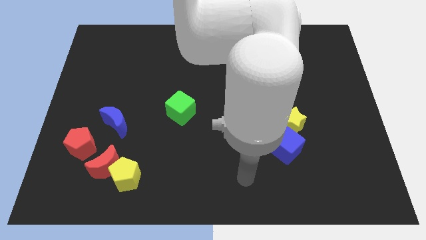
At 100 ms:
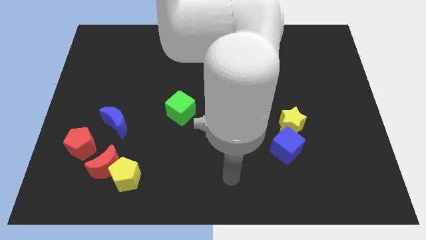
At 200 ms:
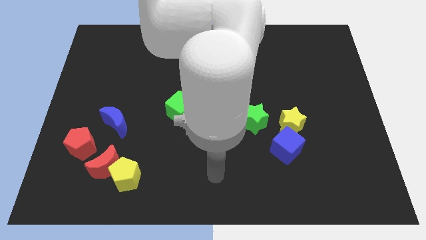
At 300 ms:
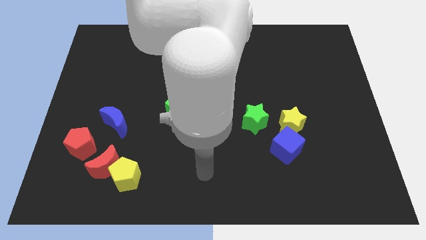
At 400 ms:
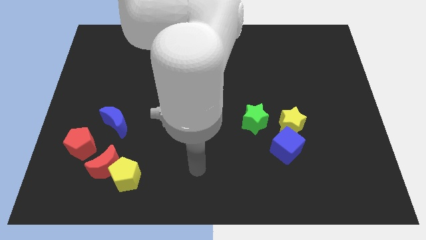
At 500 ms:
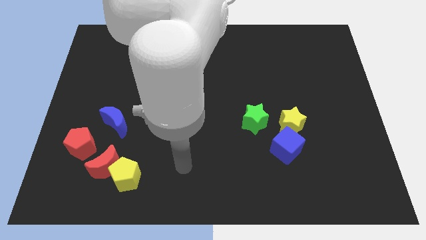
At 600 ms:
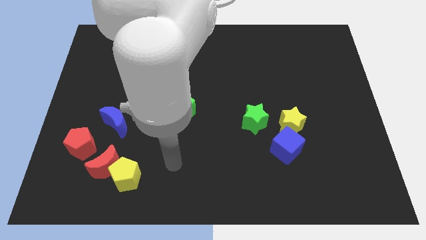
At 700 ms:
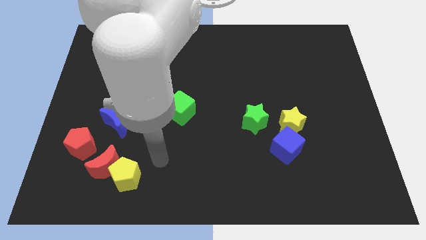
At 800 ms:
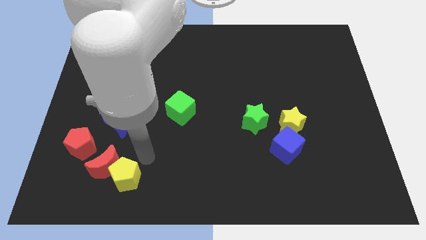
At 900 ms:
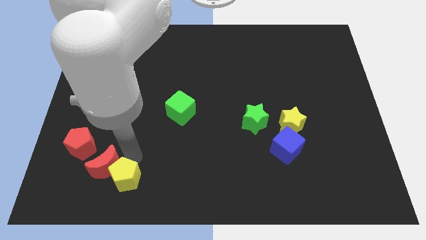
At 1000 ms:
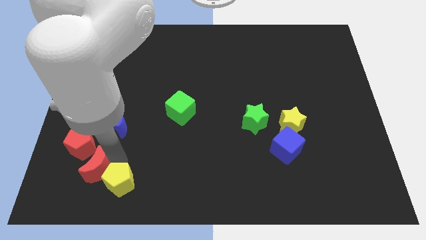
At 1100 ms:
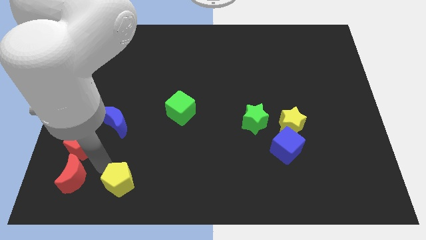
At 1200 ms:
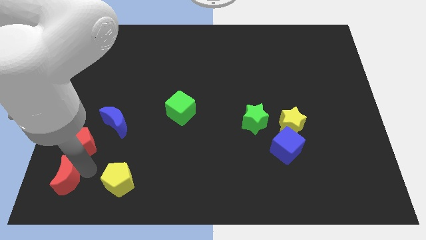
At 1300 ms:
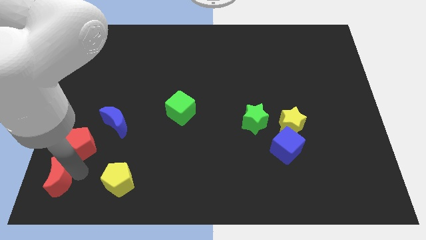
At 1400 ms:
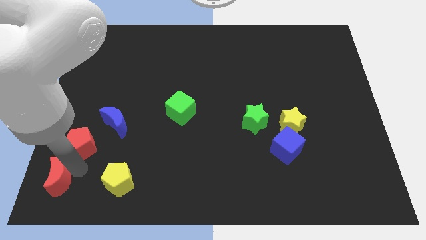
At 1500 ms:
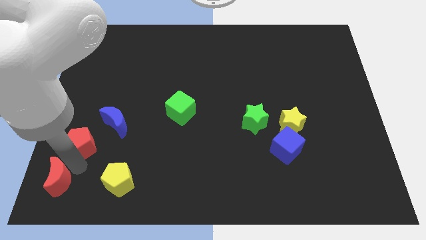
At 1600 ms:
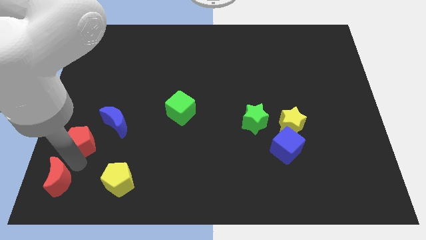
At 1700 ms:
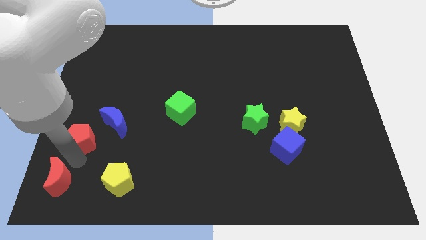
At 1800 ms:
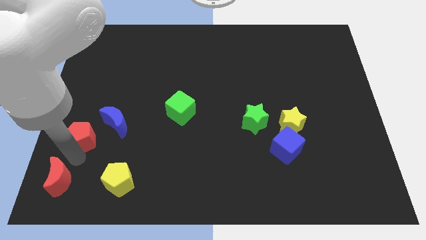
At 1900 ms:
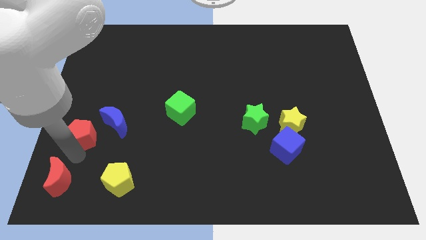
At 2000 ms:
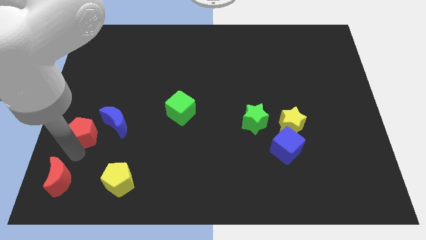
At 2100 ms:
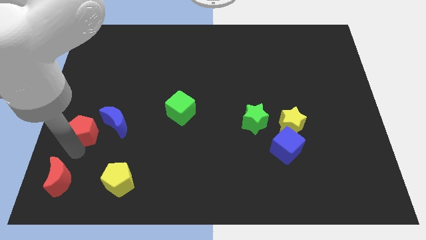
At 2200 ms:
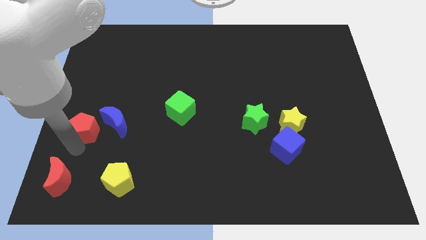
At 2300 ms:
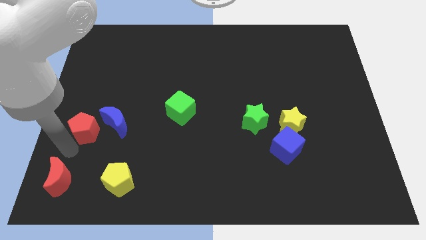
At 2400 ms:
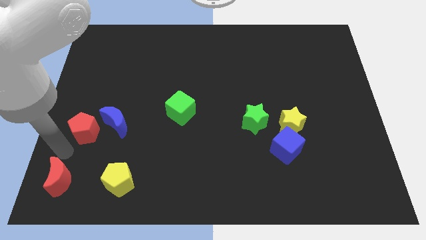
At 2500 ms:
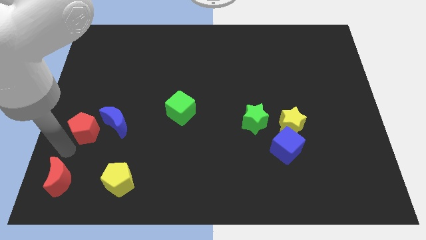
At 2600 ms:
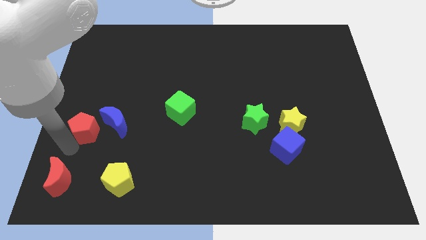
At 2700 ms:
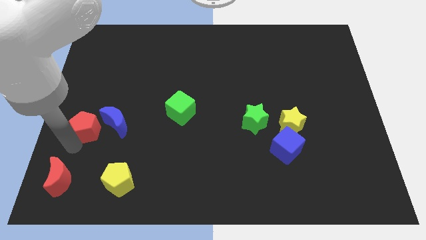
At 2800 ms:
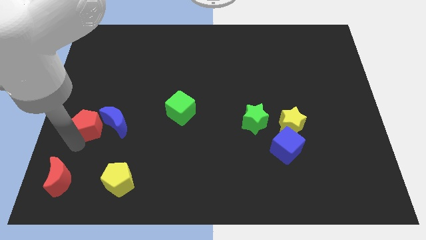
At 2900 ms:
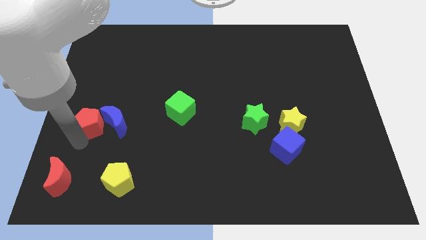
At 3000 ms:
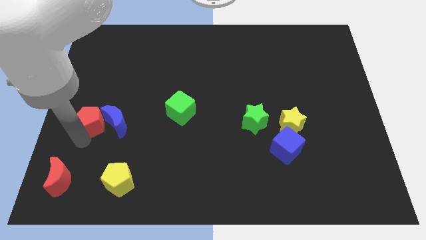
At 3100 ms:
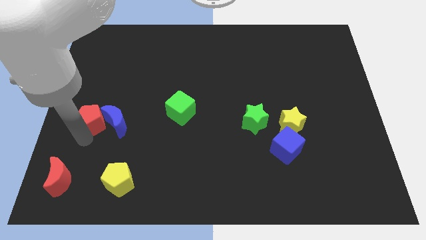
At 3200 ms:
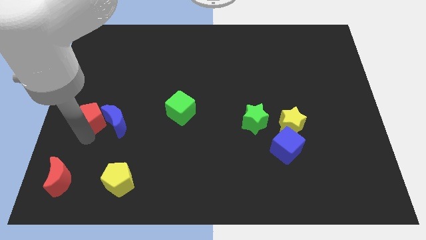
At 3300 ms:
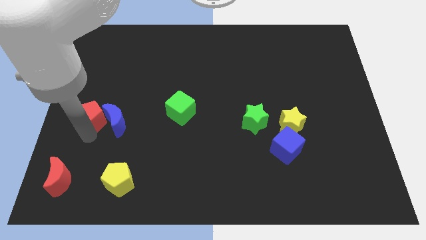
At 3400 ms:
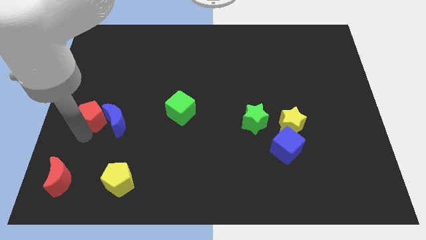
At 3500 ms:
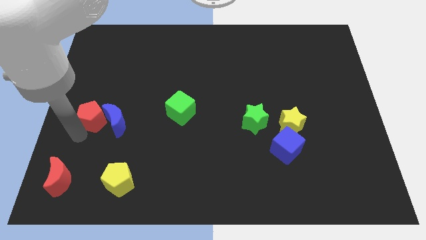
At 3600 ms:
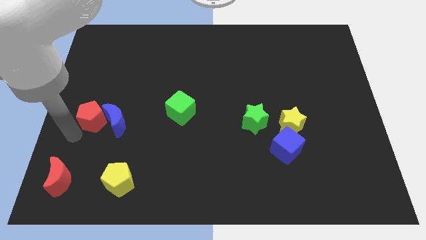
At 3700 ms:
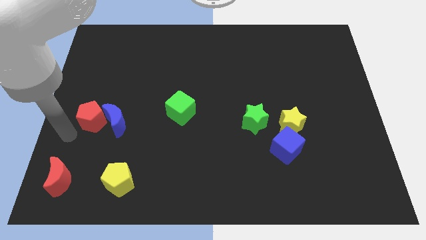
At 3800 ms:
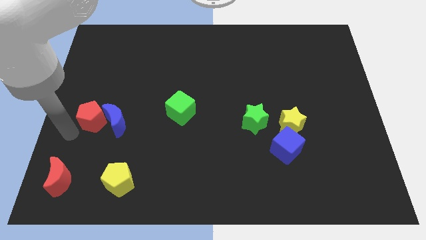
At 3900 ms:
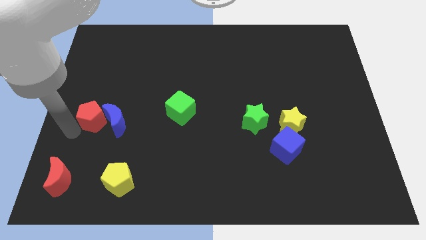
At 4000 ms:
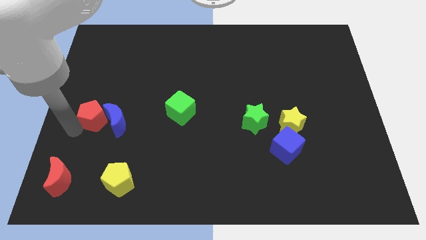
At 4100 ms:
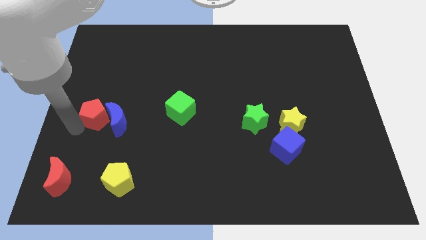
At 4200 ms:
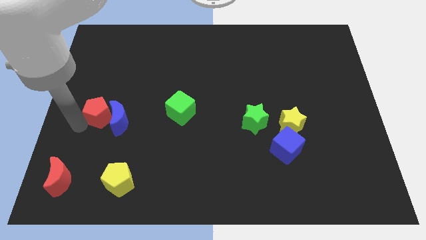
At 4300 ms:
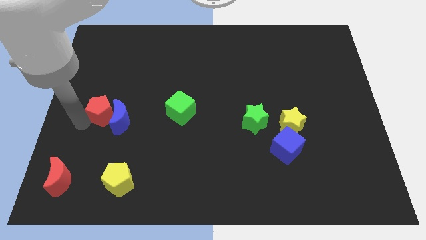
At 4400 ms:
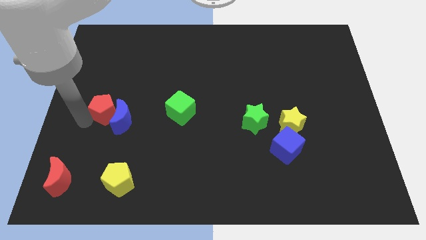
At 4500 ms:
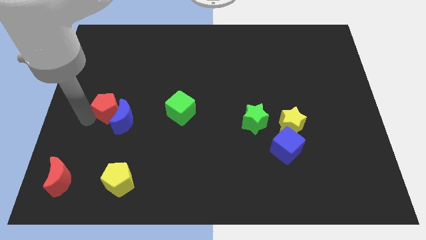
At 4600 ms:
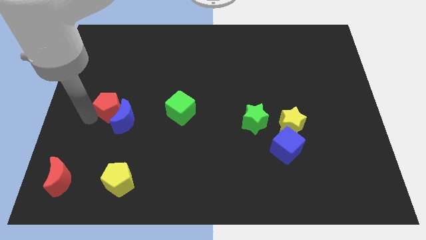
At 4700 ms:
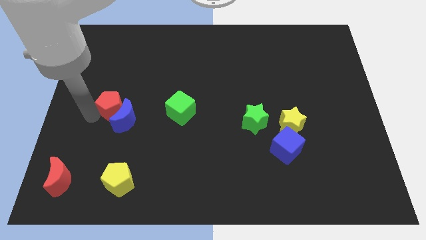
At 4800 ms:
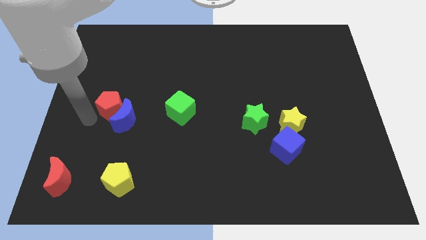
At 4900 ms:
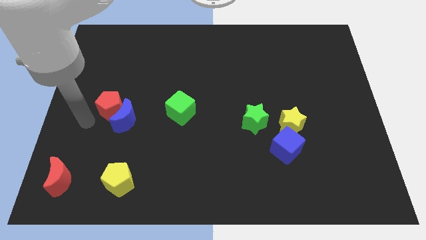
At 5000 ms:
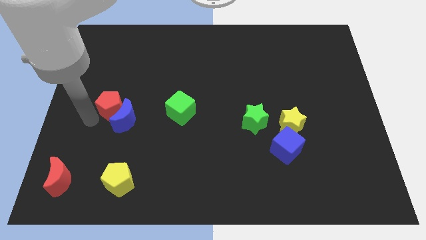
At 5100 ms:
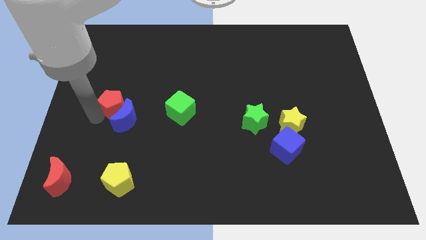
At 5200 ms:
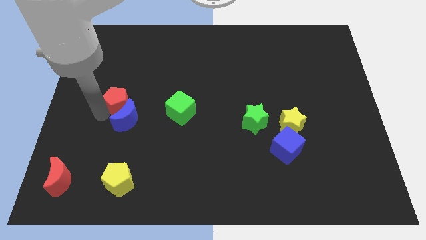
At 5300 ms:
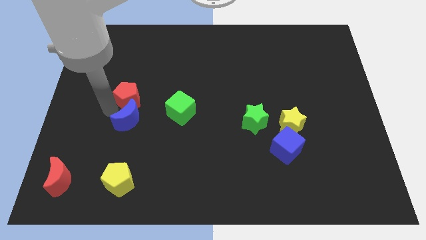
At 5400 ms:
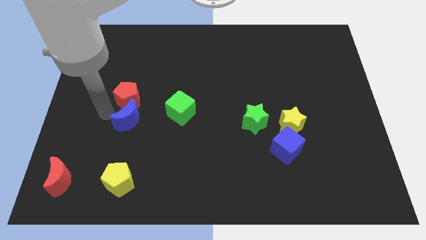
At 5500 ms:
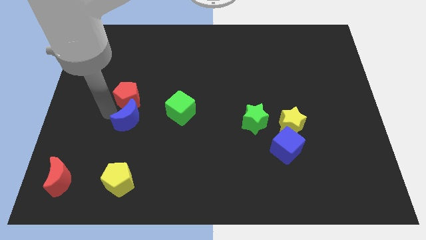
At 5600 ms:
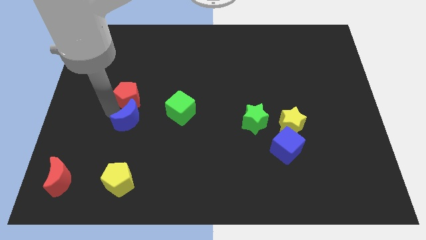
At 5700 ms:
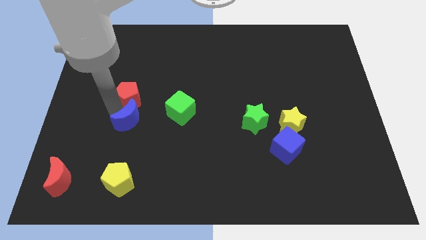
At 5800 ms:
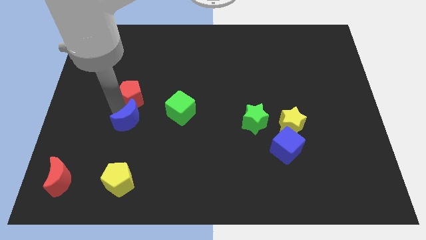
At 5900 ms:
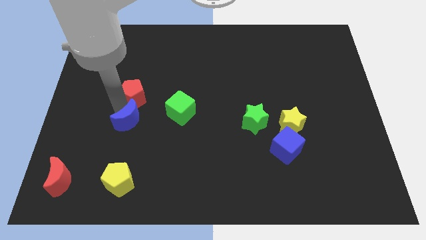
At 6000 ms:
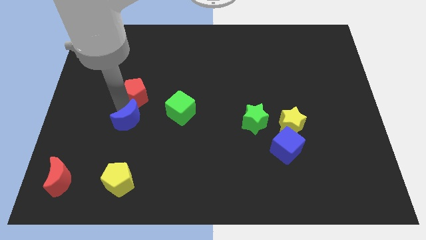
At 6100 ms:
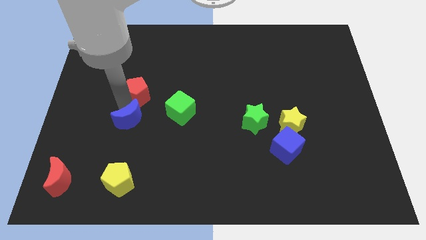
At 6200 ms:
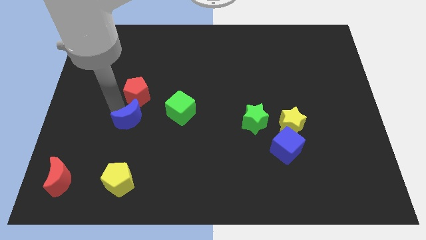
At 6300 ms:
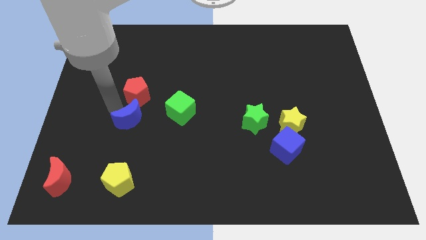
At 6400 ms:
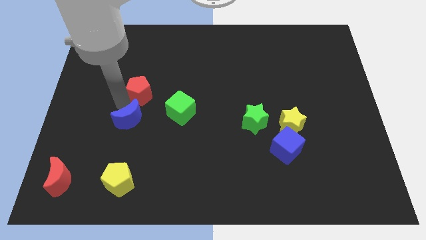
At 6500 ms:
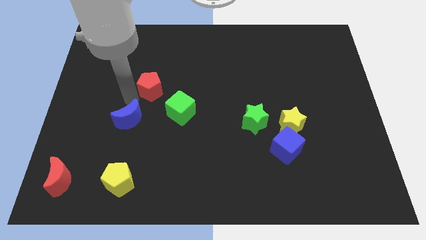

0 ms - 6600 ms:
push the red pentagon up and then right

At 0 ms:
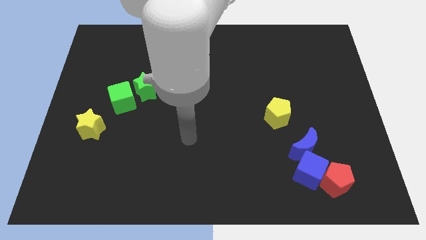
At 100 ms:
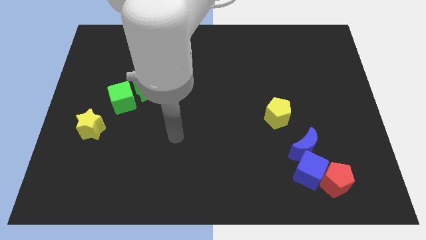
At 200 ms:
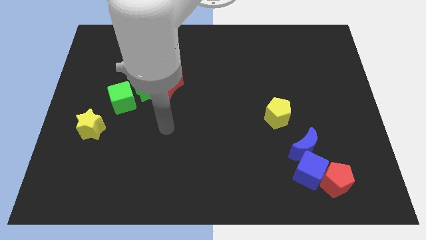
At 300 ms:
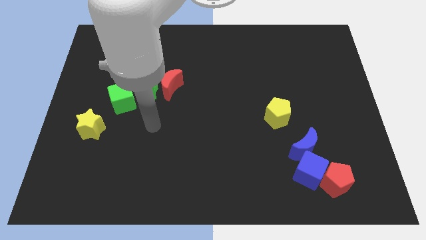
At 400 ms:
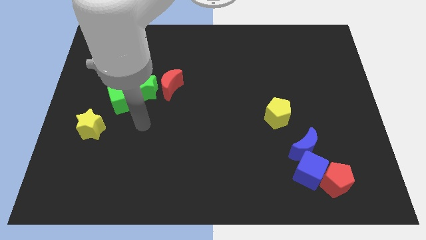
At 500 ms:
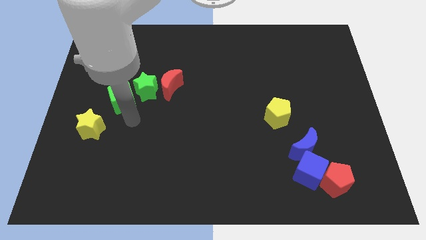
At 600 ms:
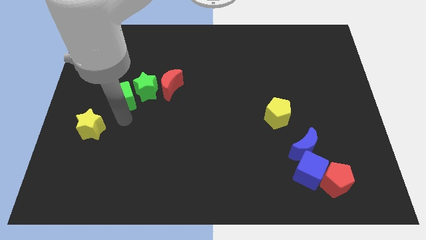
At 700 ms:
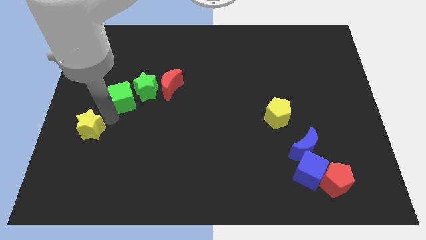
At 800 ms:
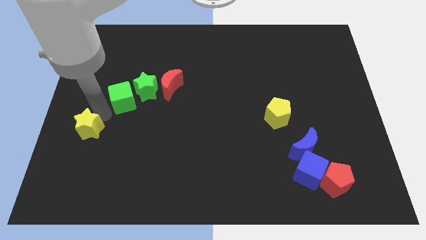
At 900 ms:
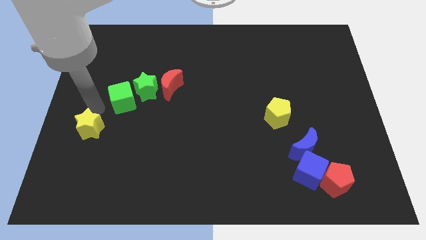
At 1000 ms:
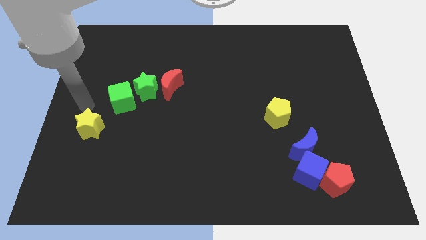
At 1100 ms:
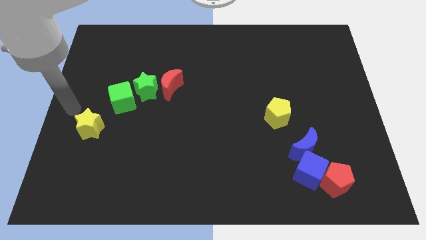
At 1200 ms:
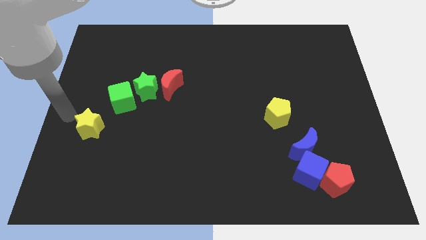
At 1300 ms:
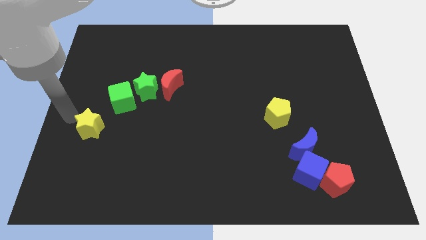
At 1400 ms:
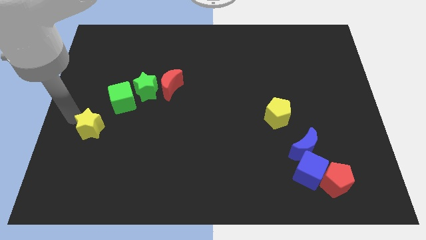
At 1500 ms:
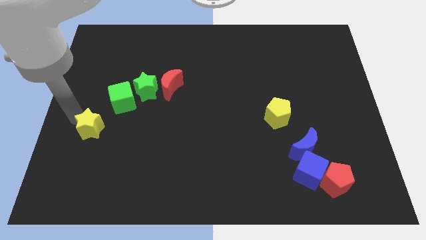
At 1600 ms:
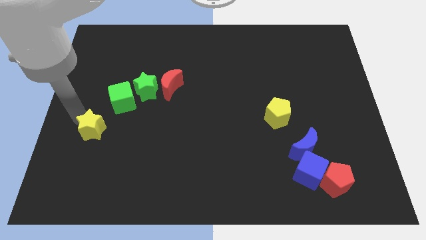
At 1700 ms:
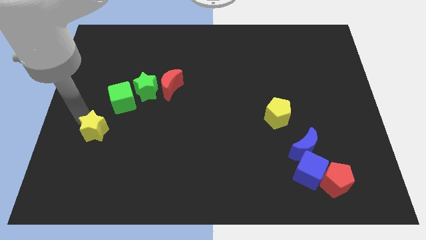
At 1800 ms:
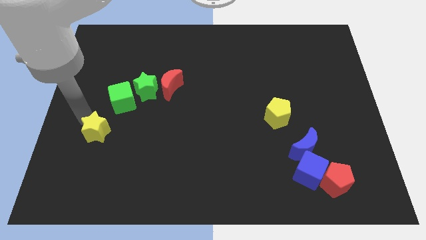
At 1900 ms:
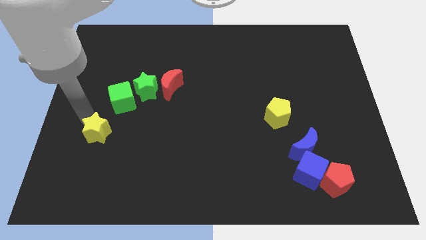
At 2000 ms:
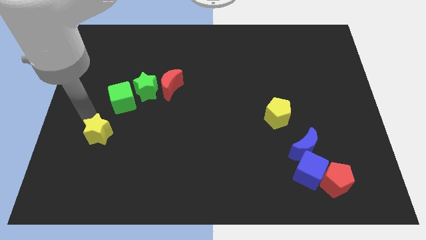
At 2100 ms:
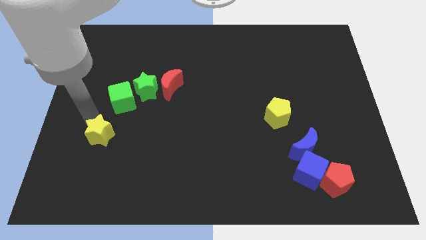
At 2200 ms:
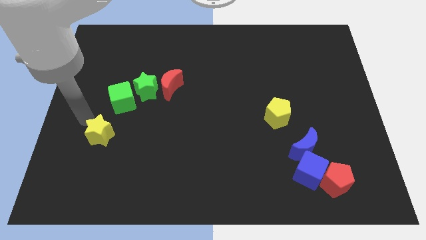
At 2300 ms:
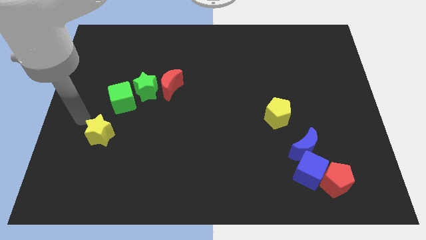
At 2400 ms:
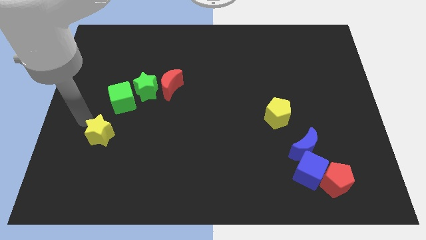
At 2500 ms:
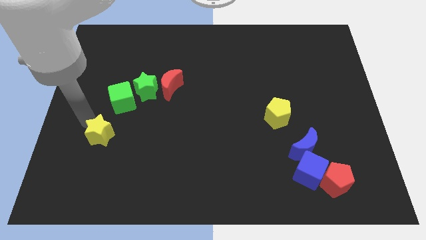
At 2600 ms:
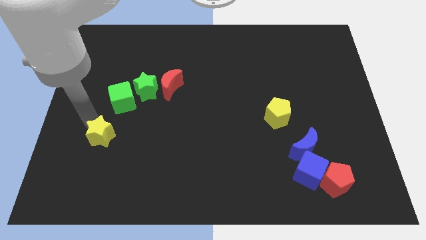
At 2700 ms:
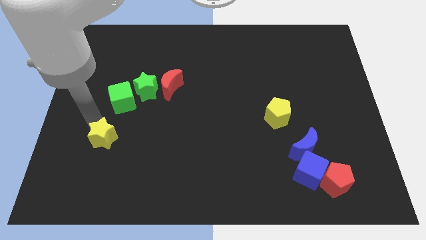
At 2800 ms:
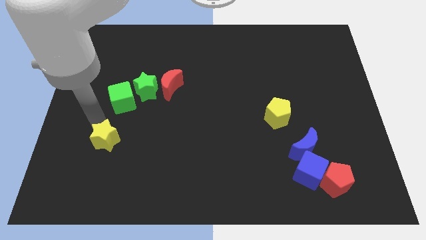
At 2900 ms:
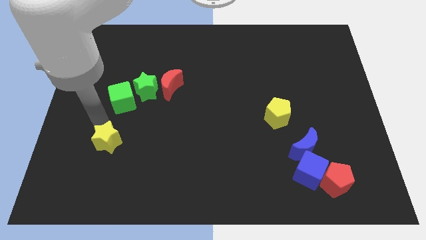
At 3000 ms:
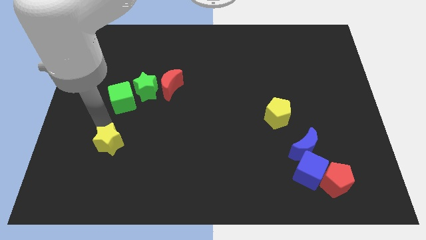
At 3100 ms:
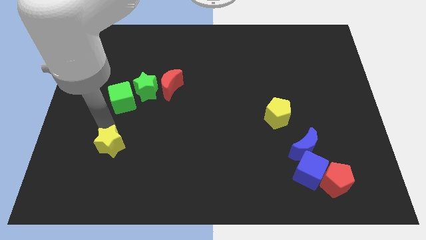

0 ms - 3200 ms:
push the yellow star a little bit down and then right
